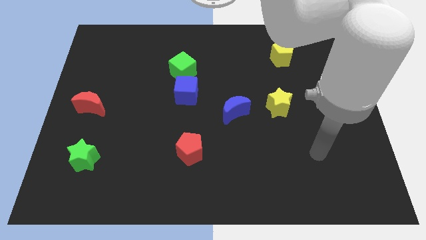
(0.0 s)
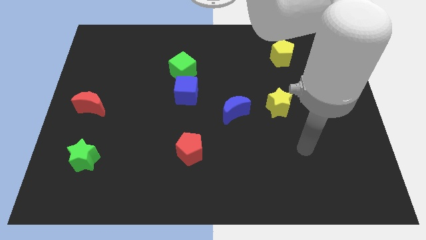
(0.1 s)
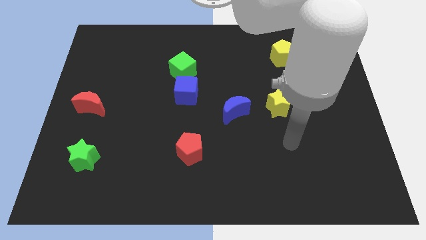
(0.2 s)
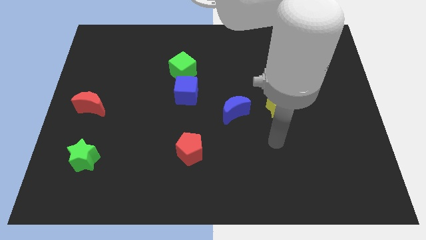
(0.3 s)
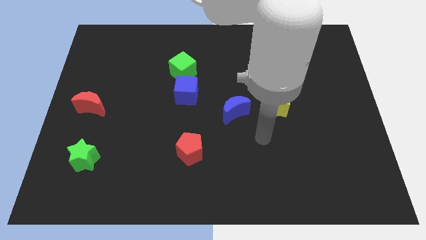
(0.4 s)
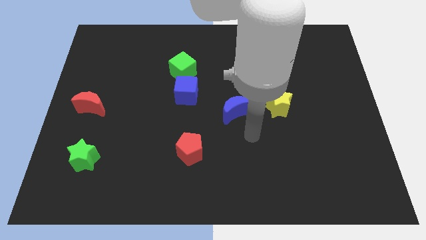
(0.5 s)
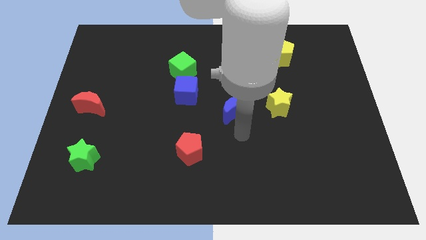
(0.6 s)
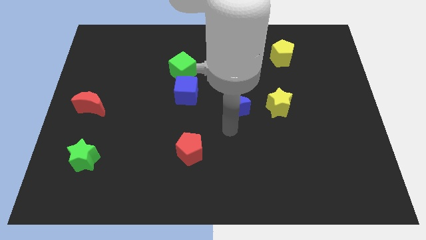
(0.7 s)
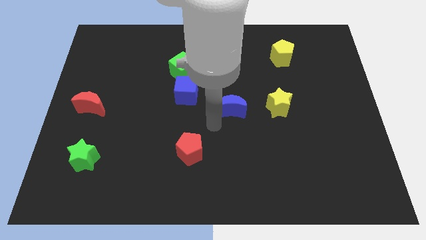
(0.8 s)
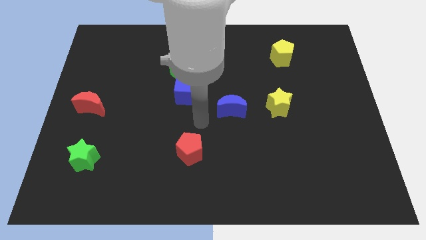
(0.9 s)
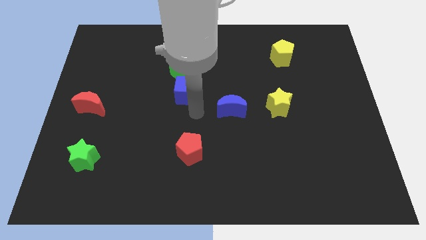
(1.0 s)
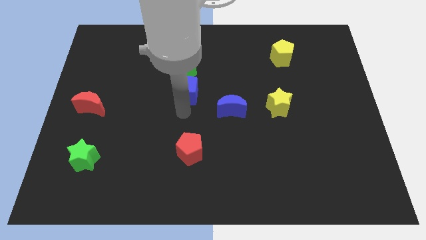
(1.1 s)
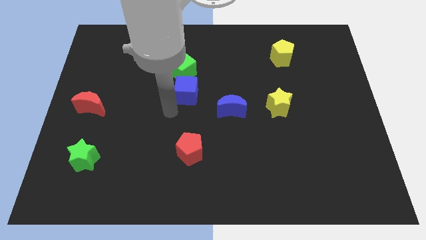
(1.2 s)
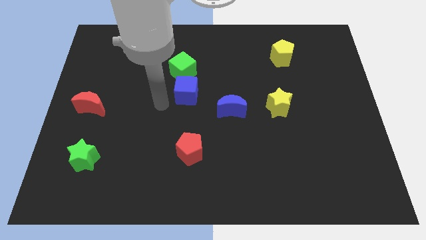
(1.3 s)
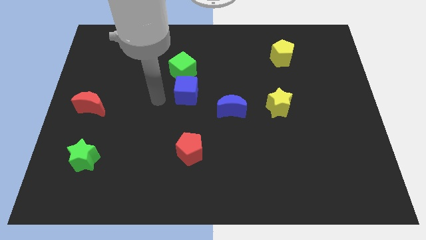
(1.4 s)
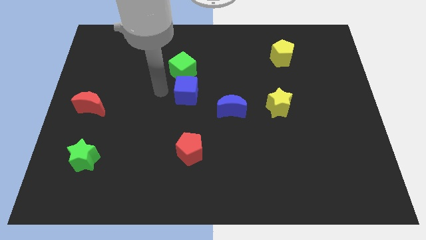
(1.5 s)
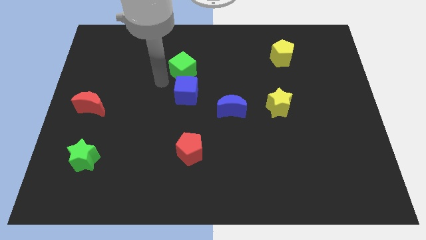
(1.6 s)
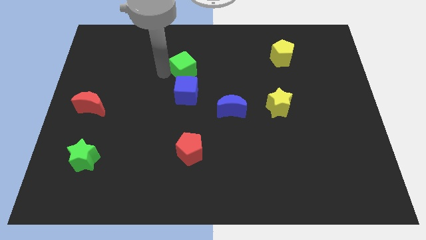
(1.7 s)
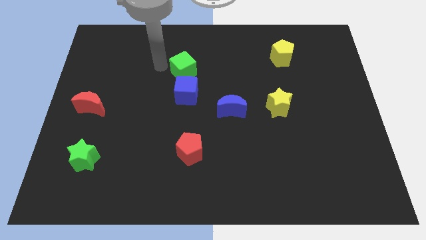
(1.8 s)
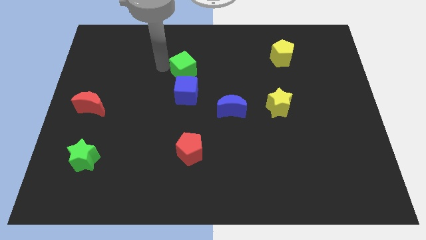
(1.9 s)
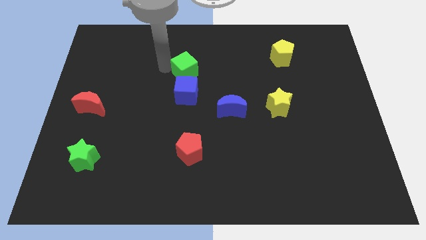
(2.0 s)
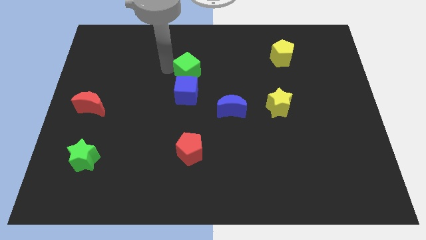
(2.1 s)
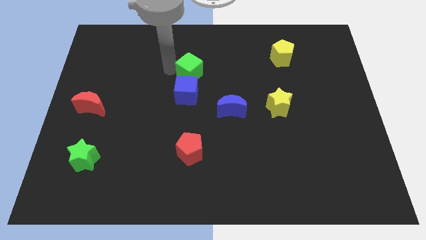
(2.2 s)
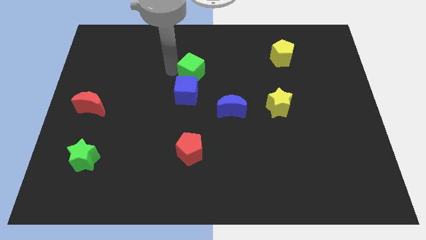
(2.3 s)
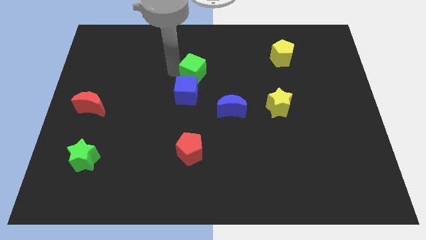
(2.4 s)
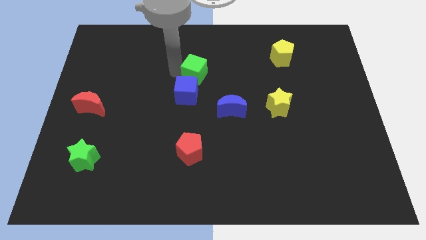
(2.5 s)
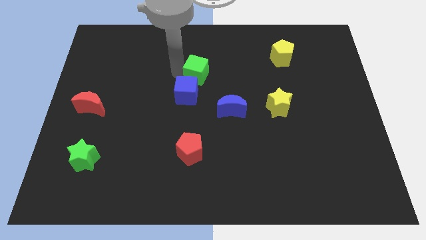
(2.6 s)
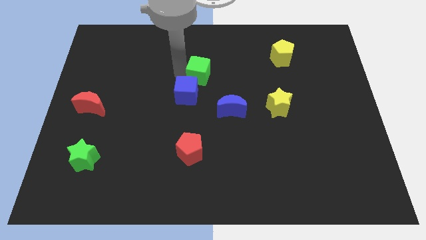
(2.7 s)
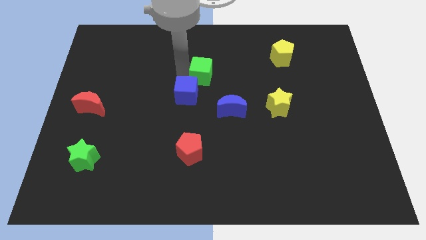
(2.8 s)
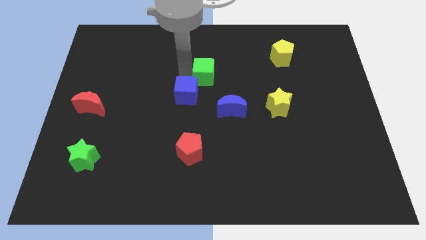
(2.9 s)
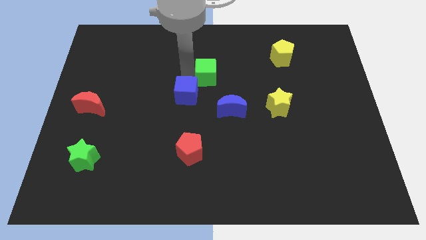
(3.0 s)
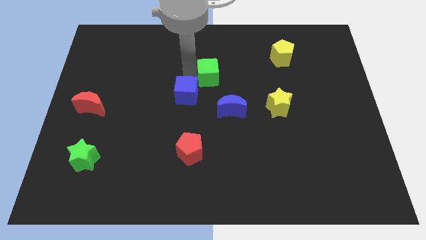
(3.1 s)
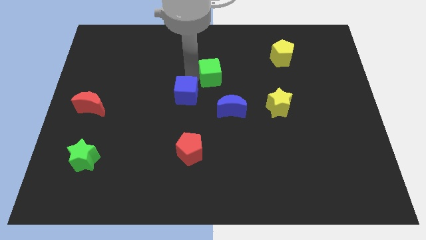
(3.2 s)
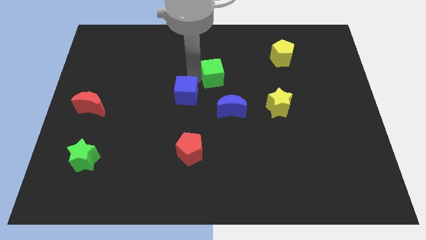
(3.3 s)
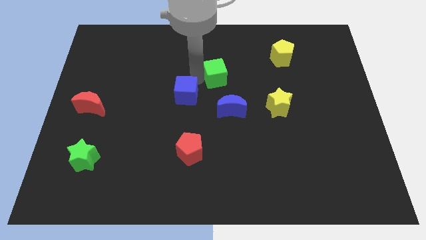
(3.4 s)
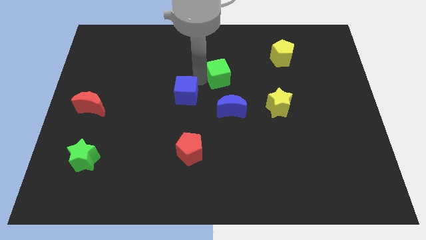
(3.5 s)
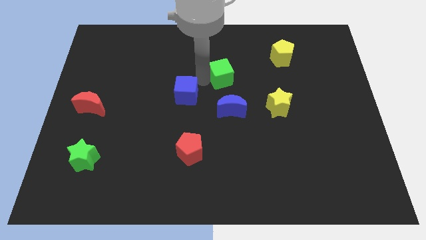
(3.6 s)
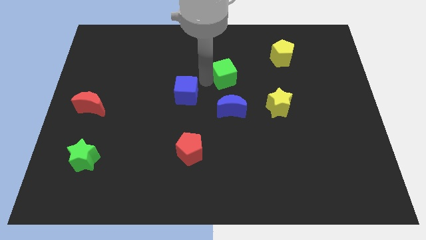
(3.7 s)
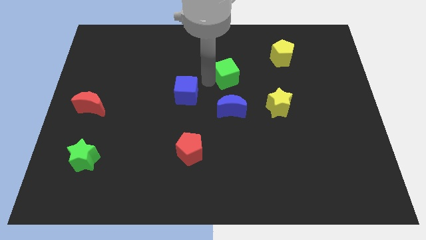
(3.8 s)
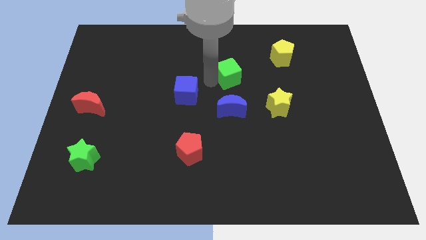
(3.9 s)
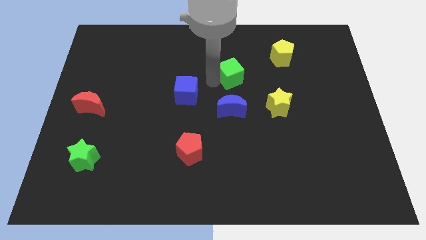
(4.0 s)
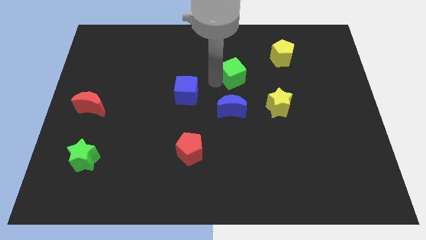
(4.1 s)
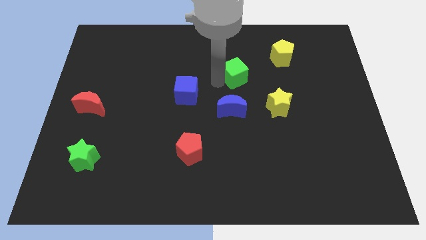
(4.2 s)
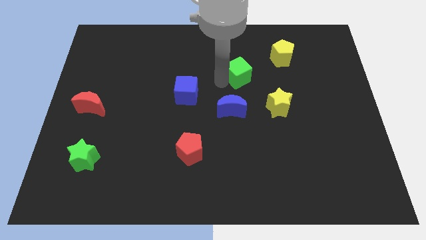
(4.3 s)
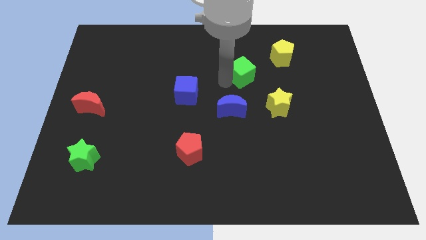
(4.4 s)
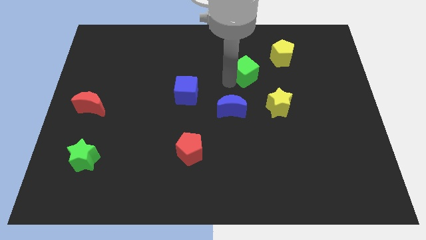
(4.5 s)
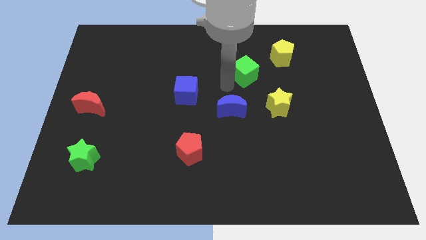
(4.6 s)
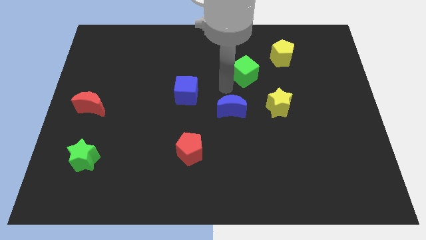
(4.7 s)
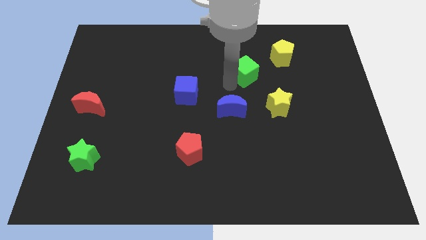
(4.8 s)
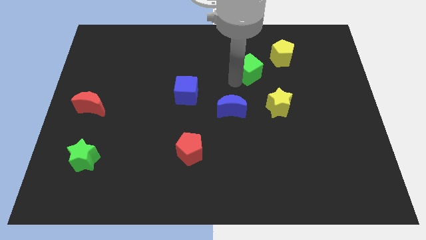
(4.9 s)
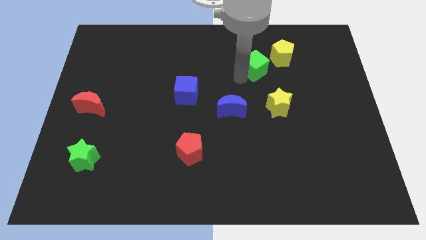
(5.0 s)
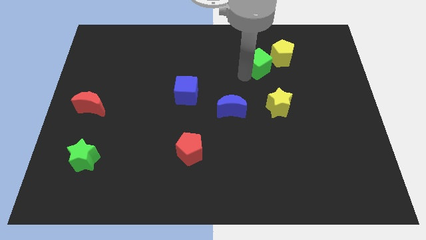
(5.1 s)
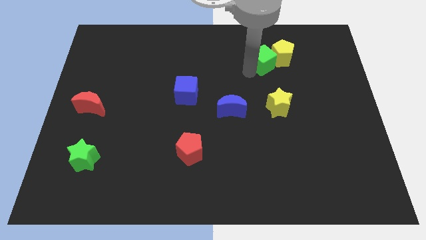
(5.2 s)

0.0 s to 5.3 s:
push the green cube next to the yellow pentagon

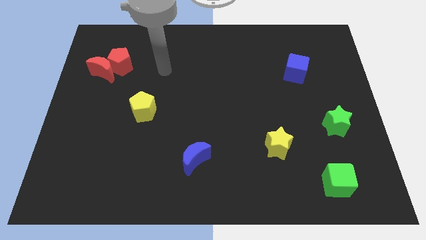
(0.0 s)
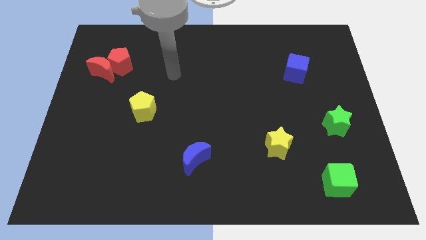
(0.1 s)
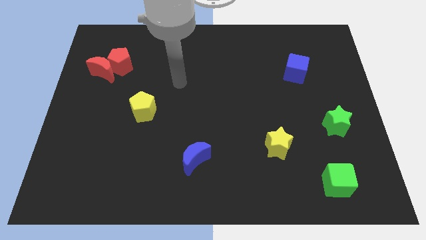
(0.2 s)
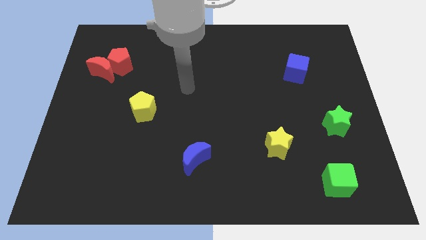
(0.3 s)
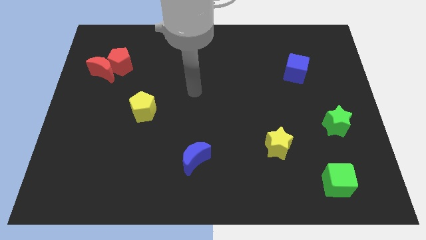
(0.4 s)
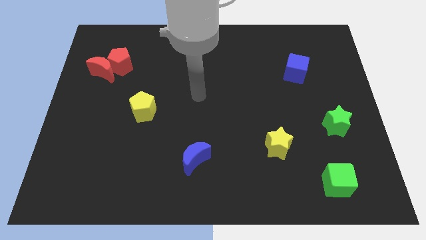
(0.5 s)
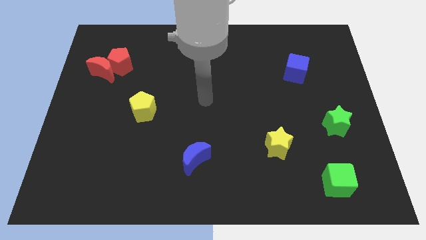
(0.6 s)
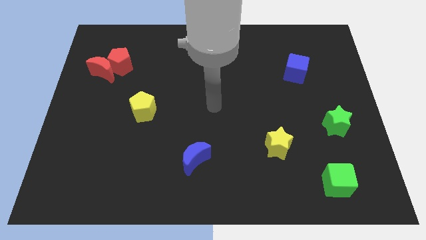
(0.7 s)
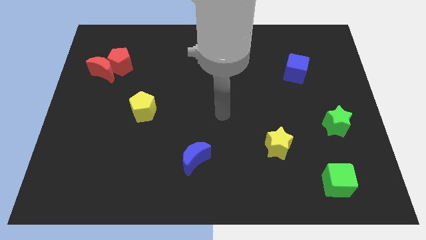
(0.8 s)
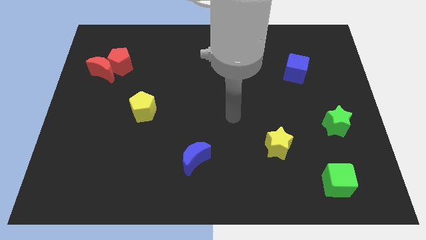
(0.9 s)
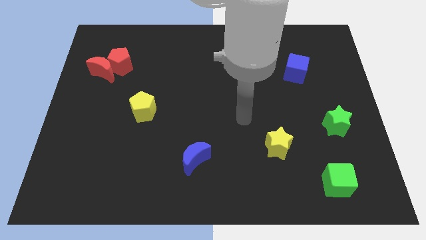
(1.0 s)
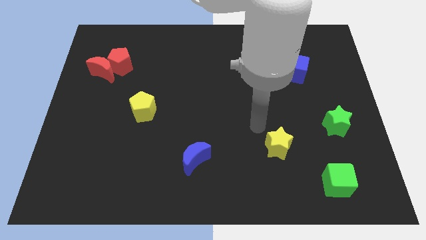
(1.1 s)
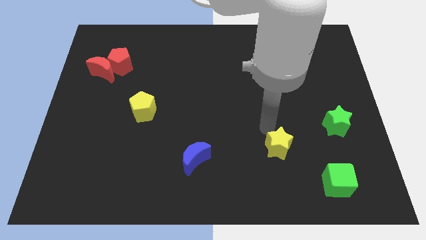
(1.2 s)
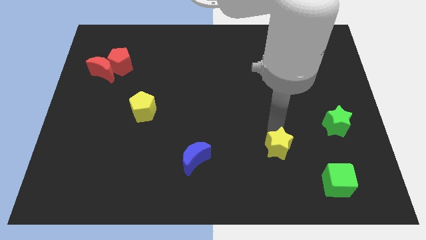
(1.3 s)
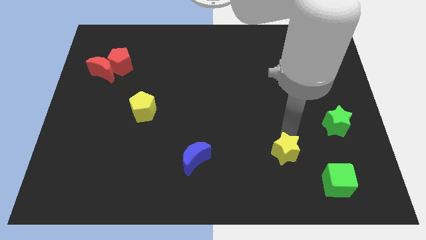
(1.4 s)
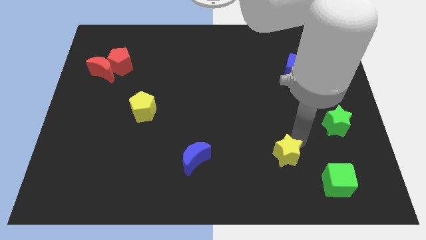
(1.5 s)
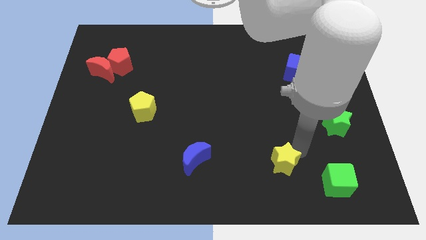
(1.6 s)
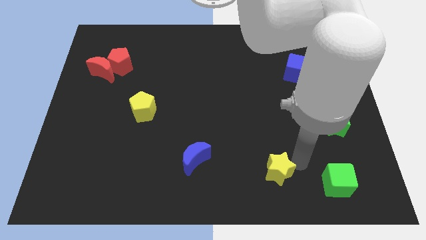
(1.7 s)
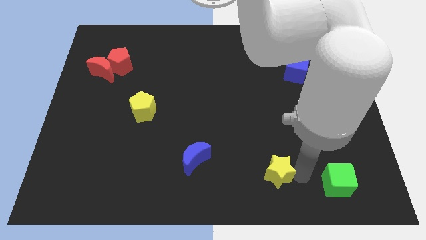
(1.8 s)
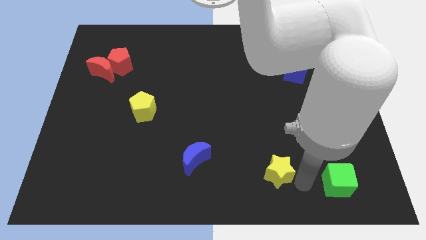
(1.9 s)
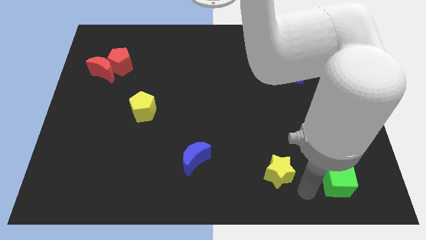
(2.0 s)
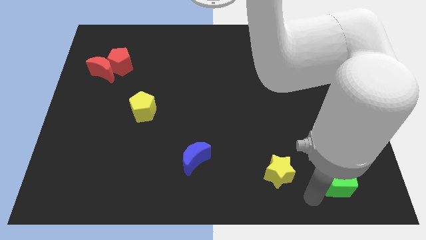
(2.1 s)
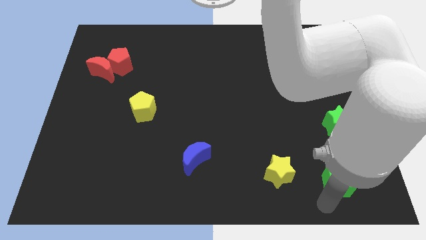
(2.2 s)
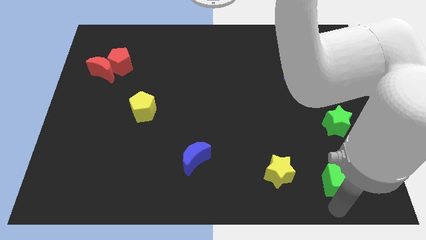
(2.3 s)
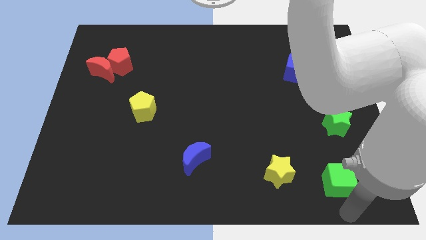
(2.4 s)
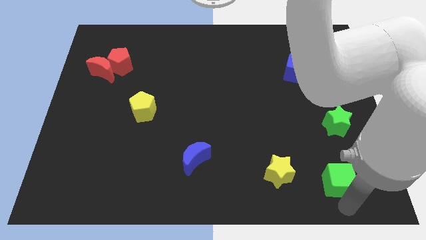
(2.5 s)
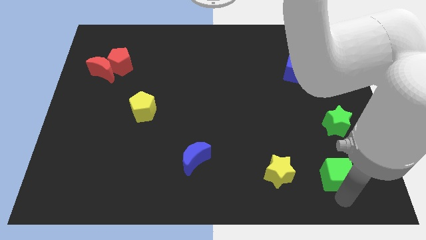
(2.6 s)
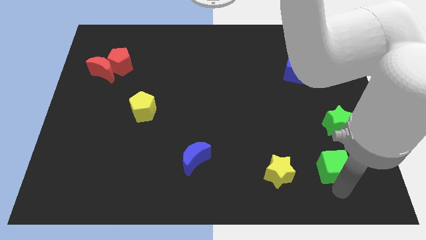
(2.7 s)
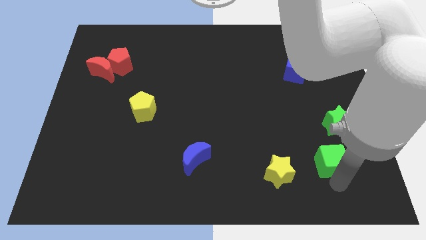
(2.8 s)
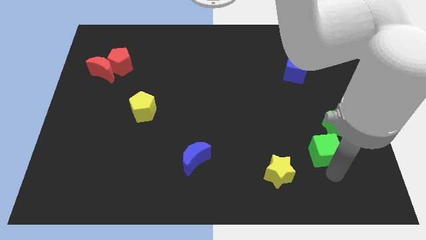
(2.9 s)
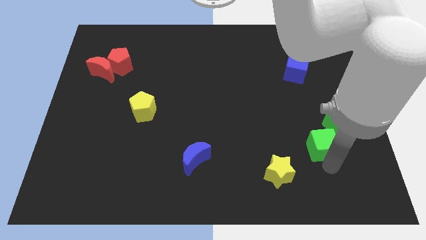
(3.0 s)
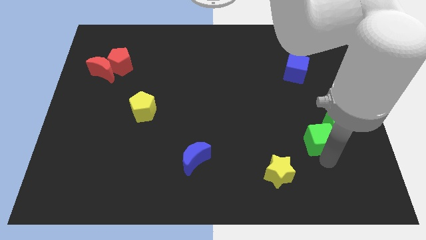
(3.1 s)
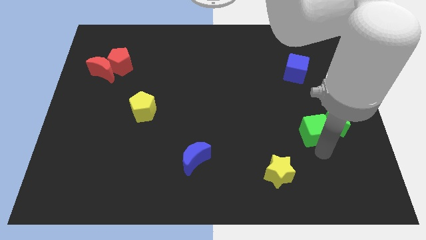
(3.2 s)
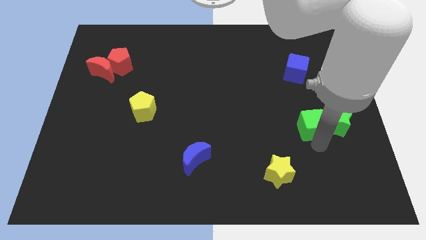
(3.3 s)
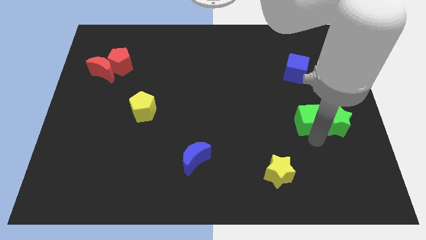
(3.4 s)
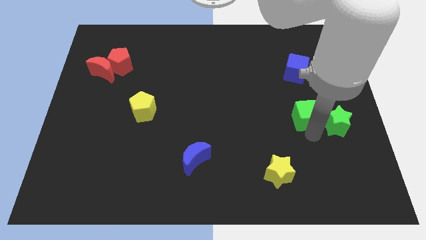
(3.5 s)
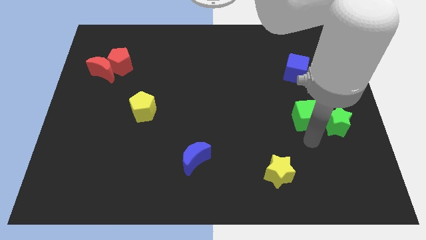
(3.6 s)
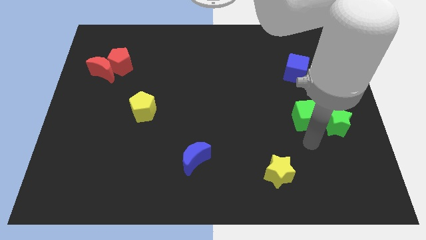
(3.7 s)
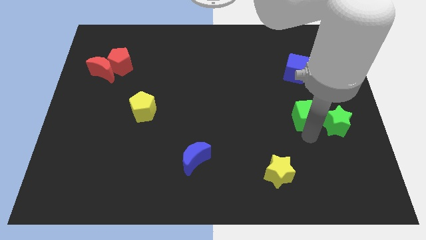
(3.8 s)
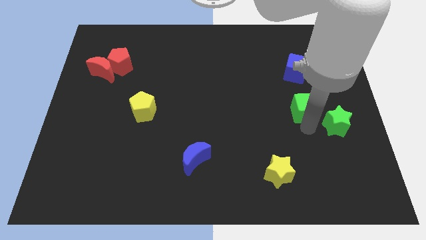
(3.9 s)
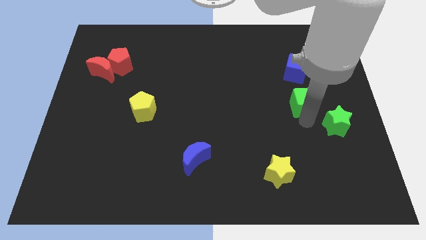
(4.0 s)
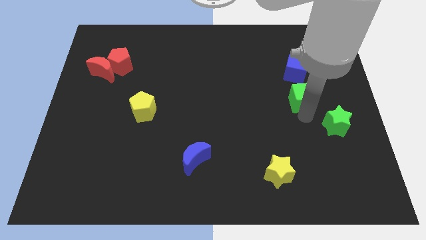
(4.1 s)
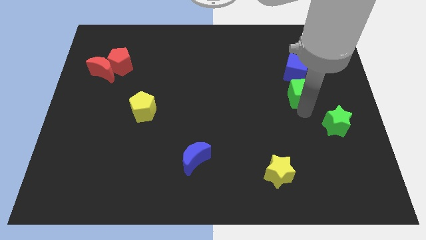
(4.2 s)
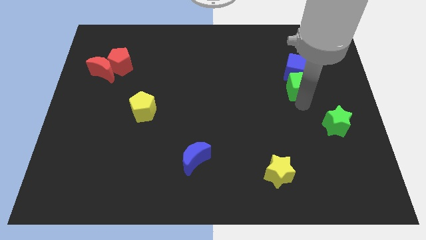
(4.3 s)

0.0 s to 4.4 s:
slide the green cube close to the blue cube
